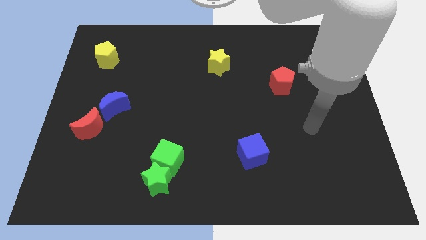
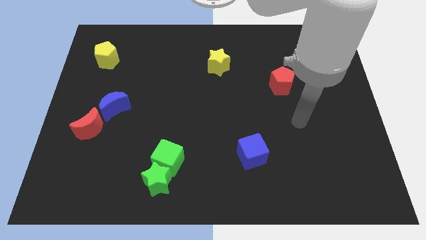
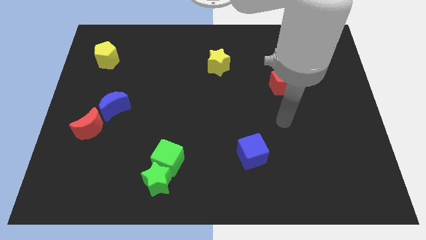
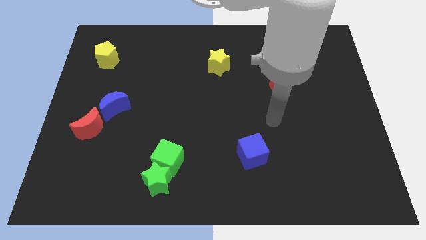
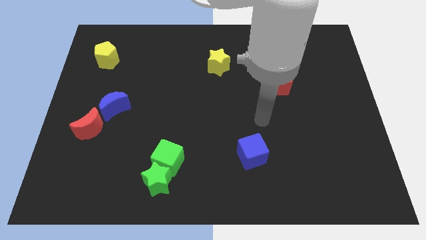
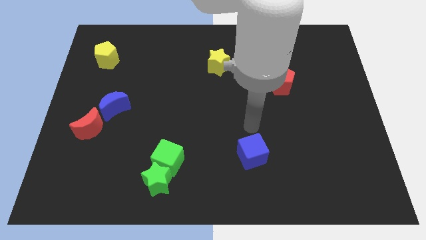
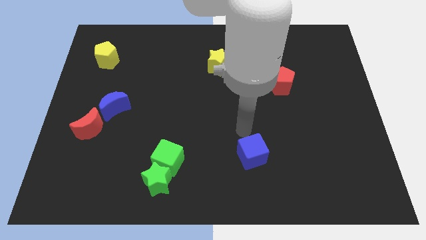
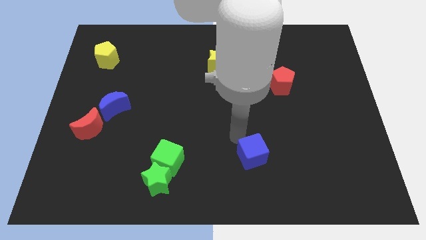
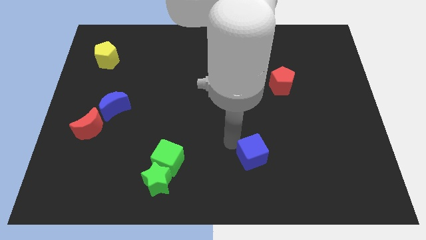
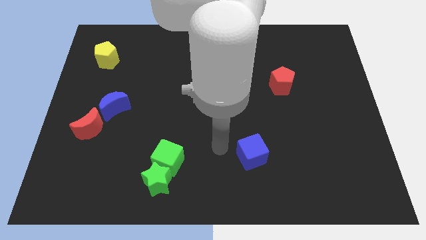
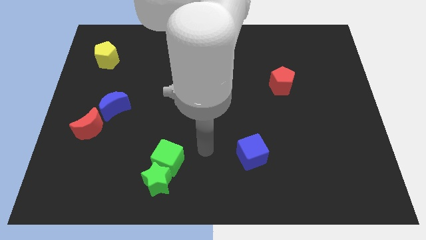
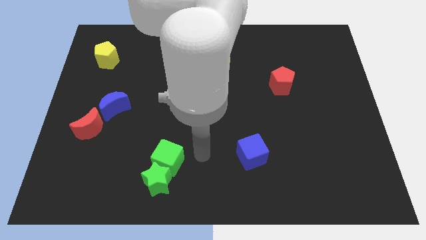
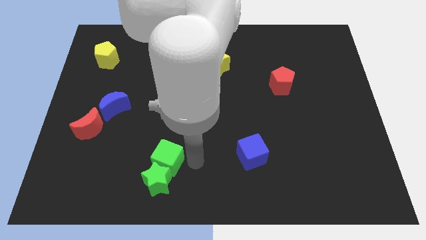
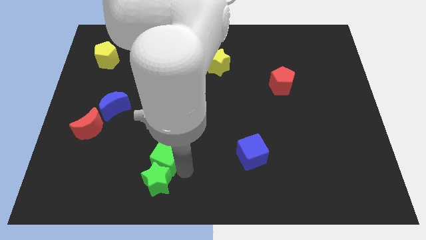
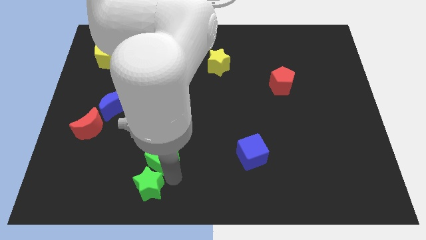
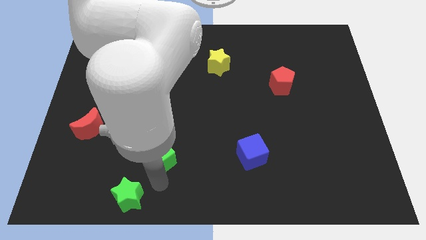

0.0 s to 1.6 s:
pull the green cube apart from the green star

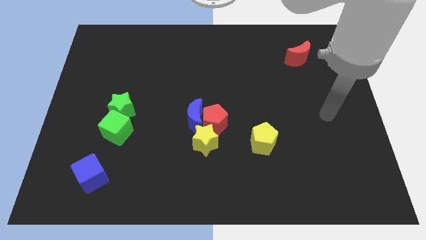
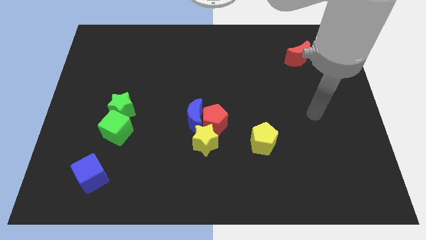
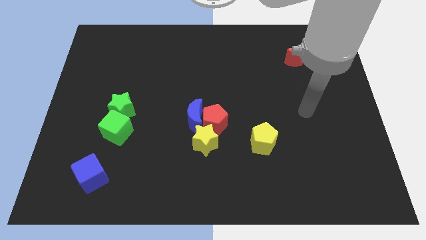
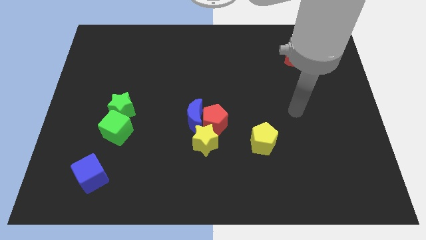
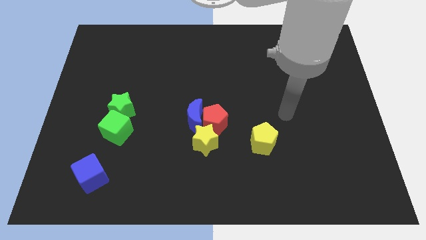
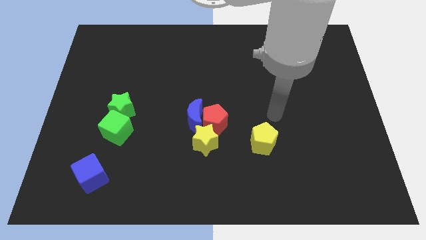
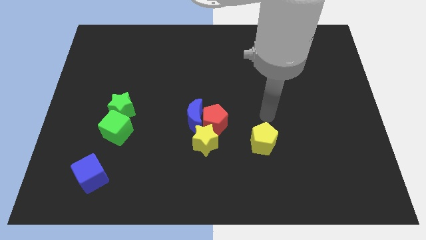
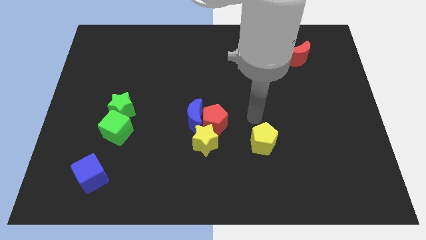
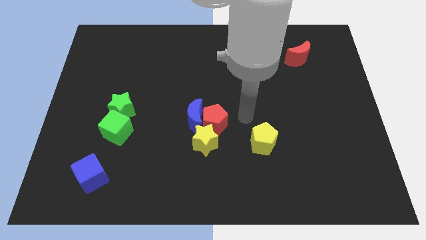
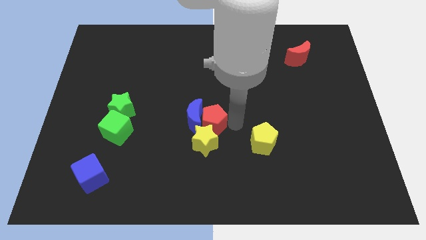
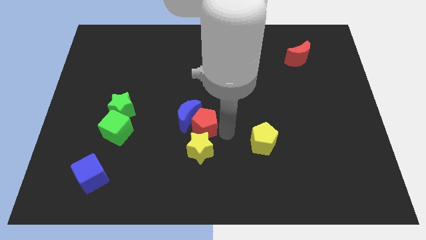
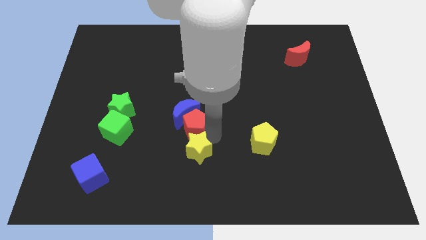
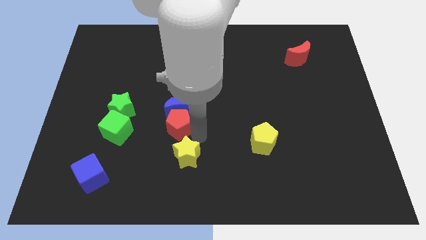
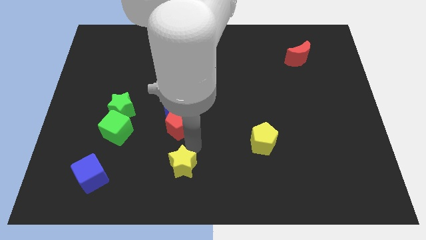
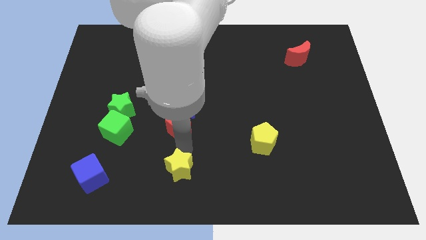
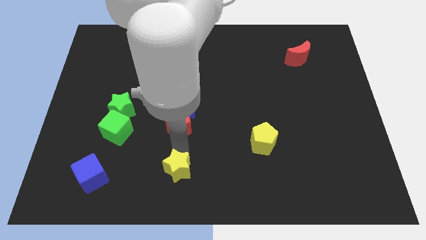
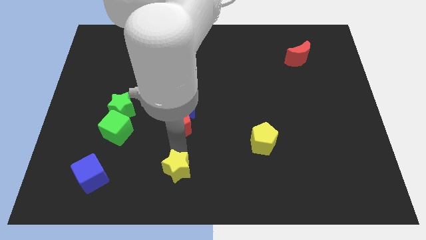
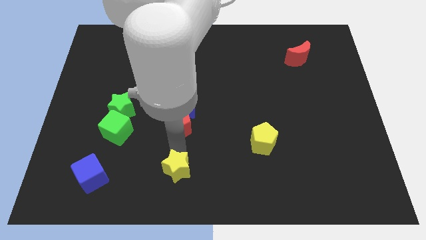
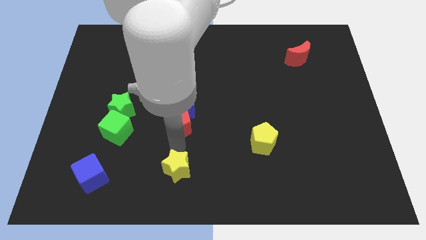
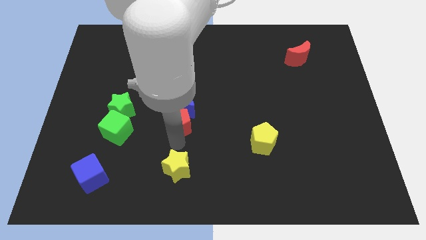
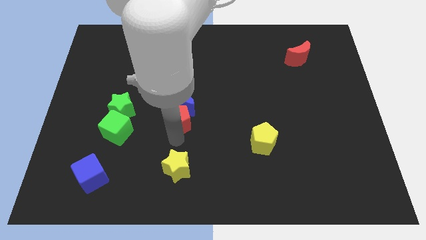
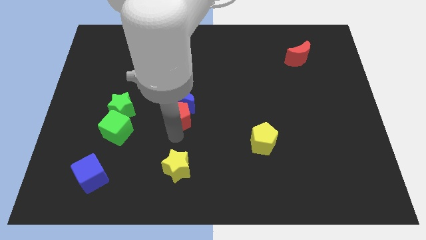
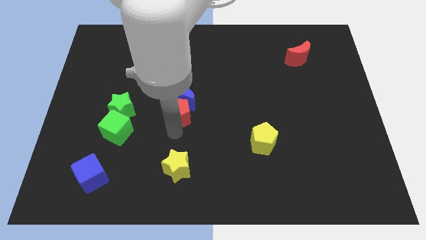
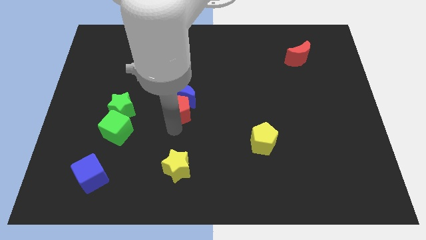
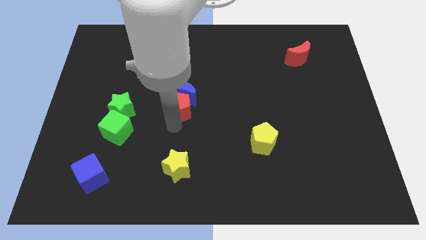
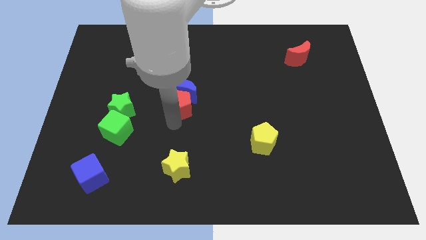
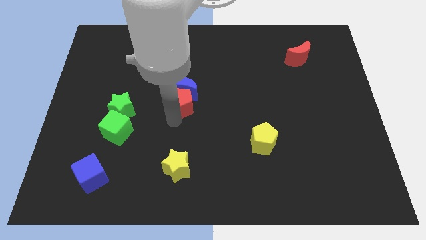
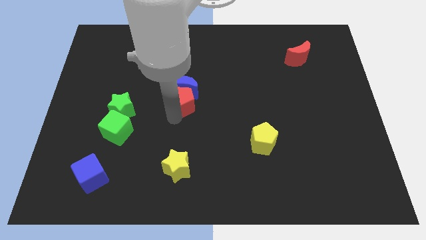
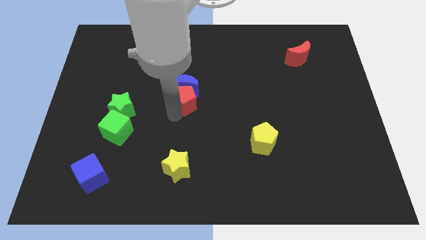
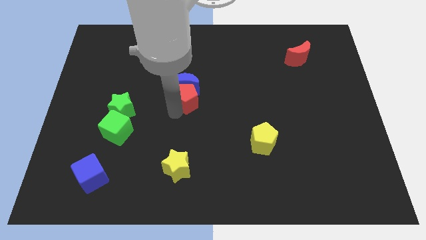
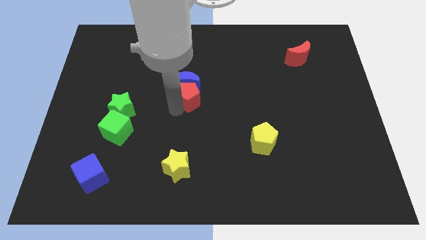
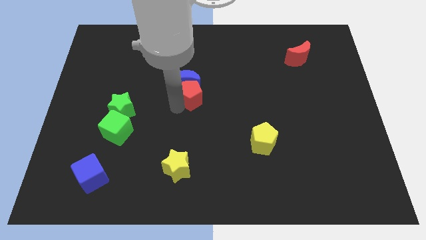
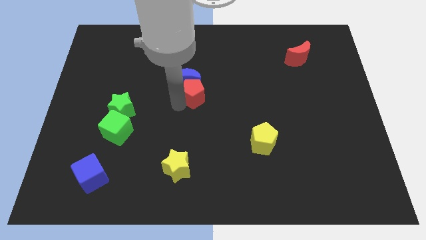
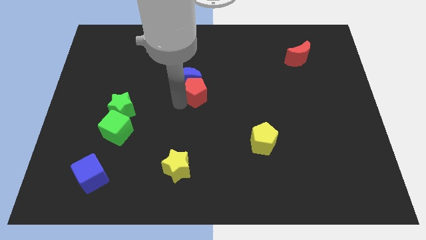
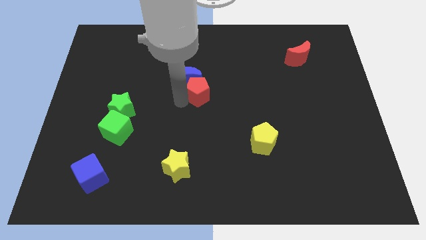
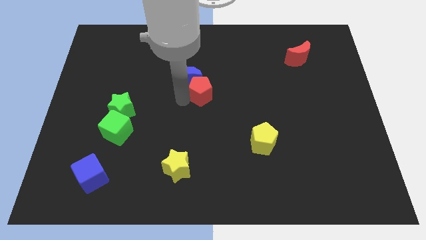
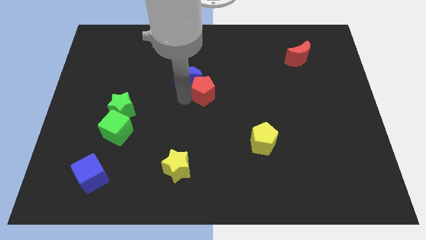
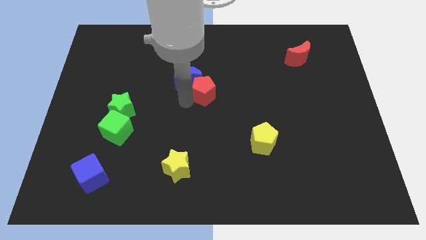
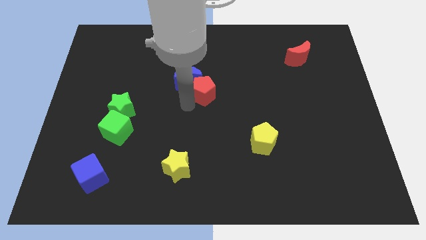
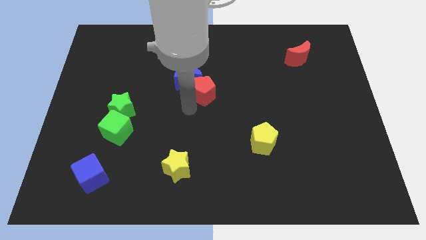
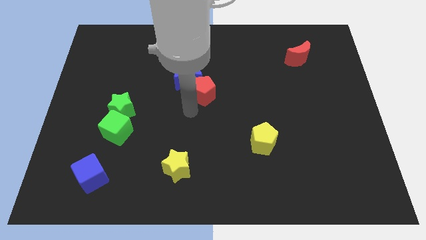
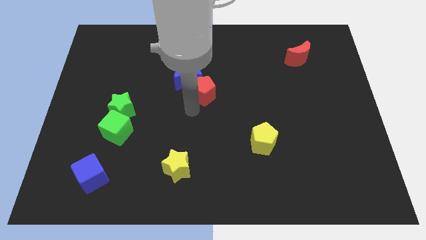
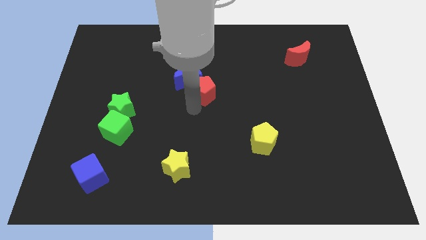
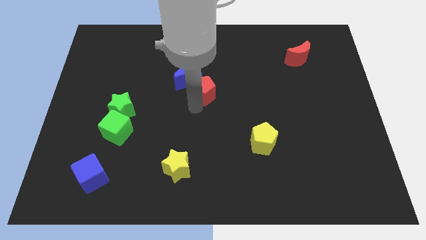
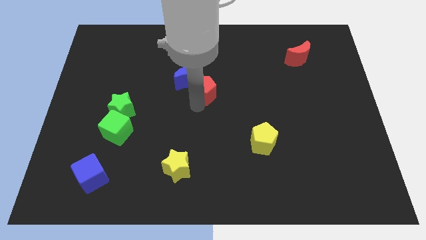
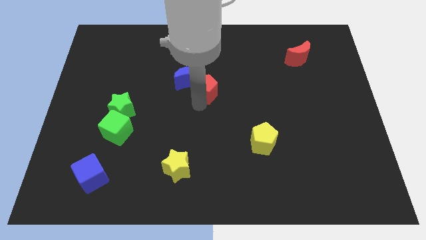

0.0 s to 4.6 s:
separate the red pentagon from the blue moon and yellow star

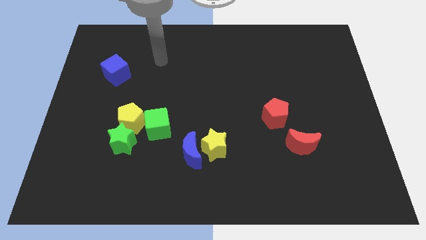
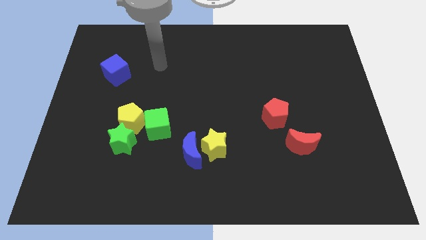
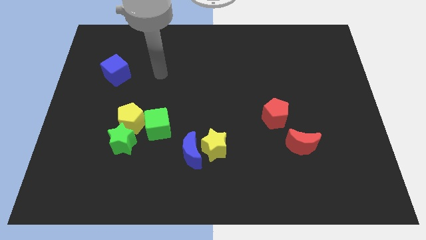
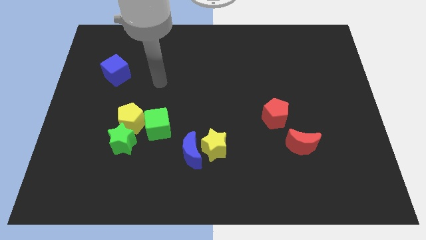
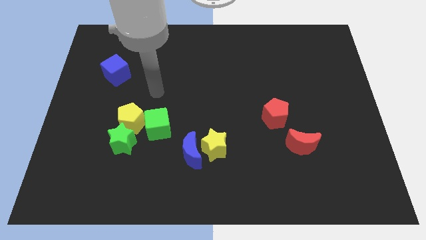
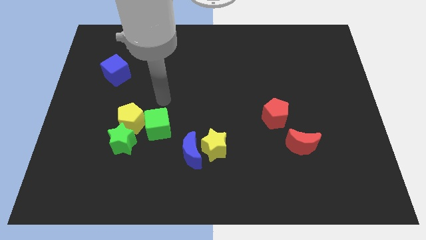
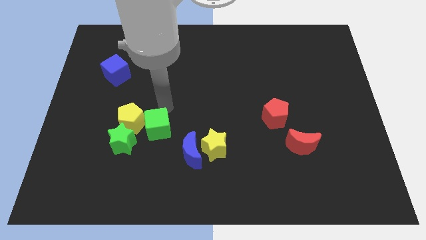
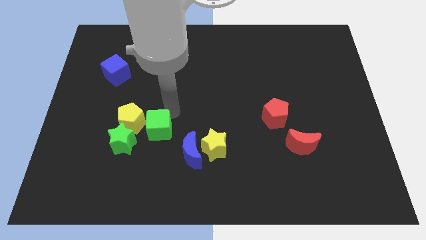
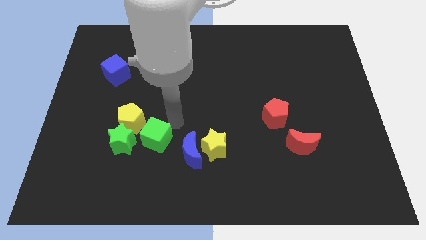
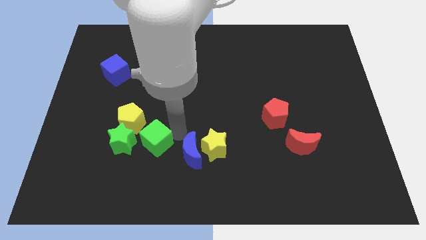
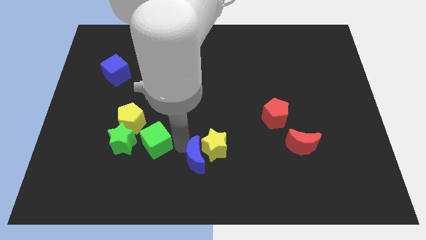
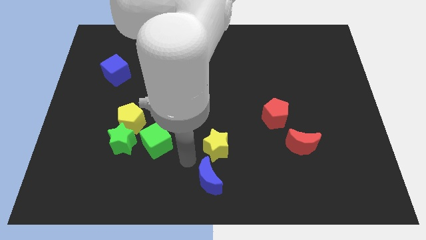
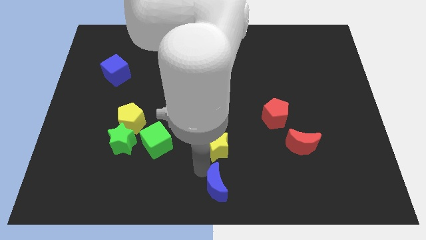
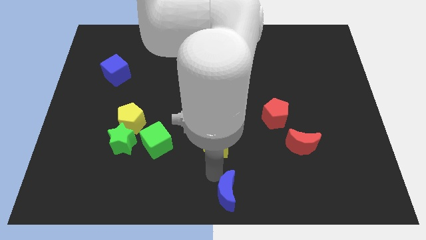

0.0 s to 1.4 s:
pull the yellow star apart from the blue moon

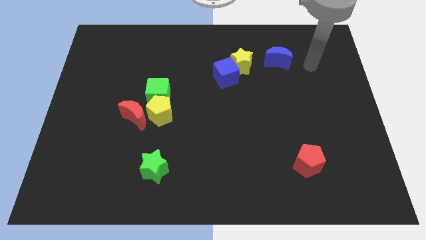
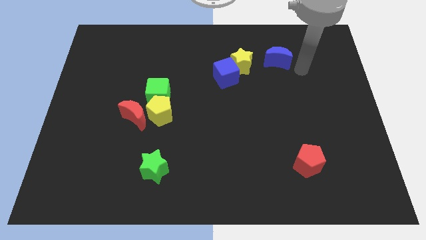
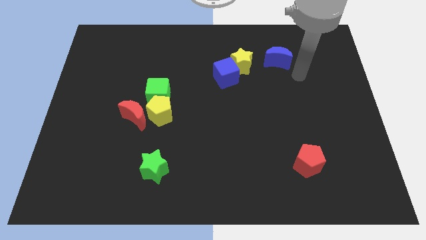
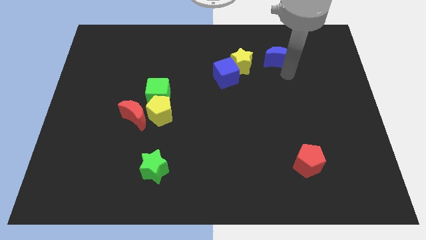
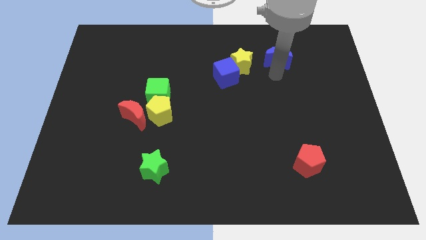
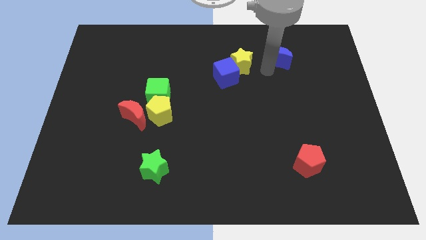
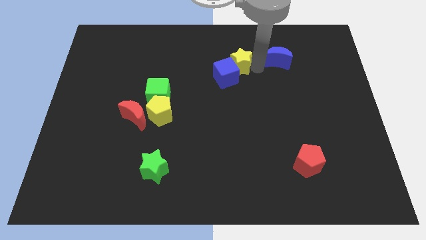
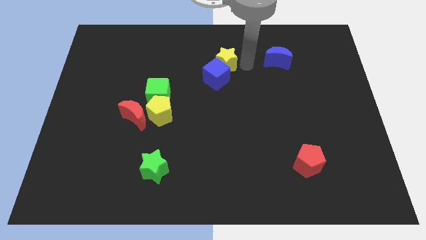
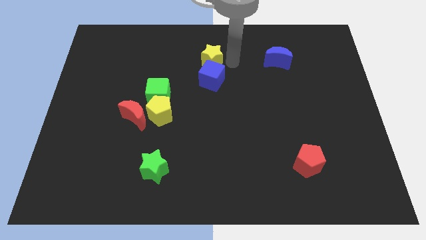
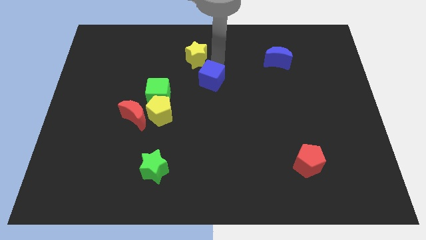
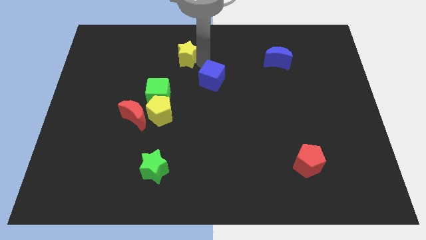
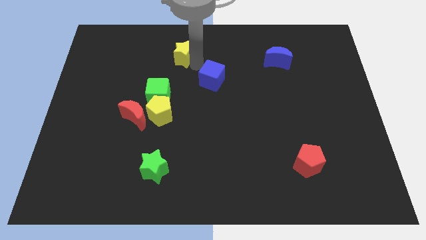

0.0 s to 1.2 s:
move the blue cube away from the yellow star

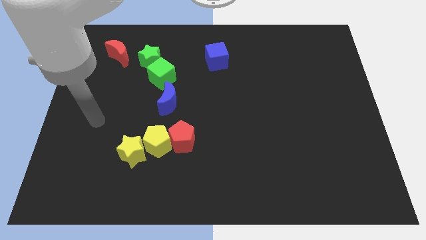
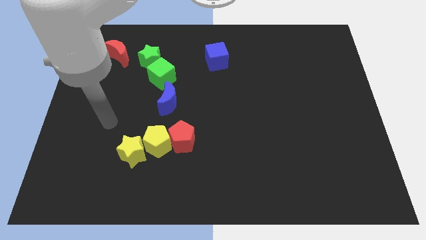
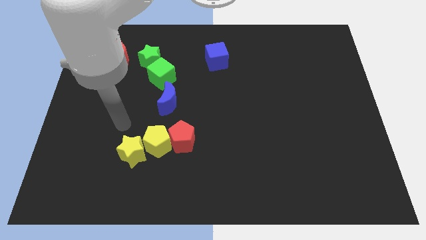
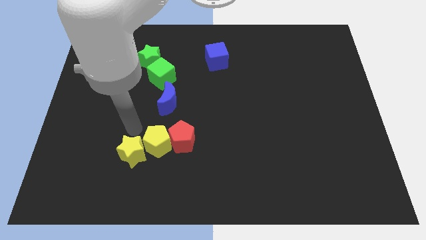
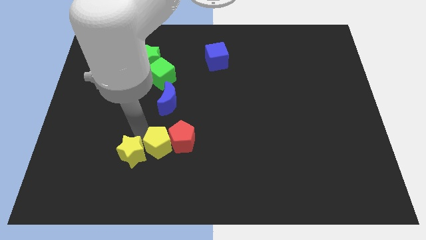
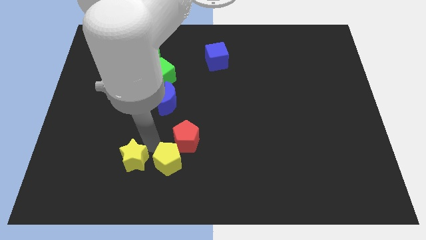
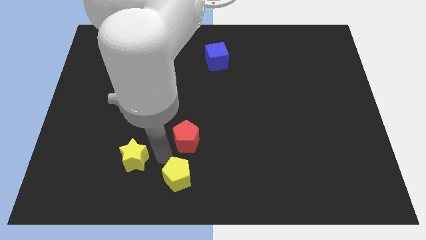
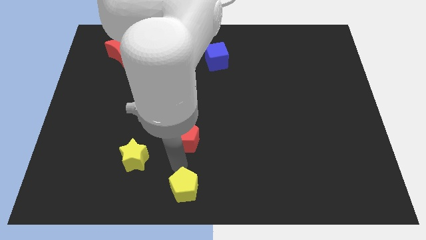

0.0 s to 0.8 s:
pull the red pentagon apart from the yellow pentagon
